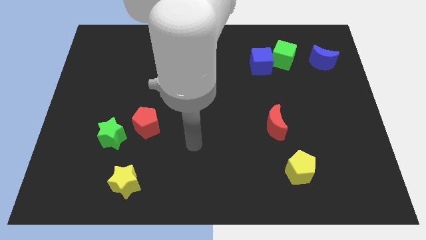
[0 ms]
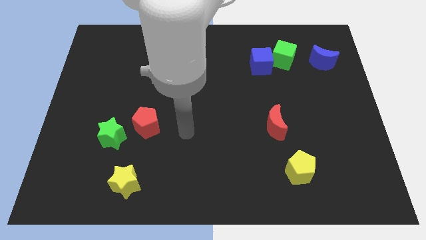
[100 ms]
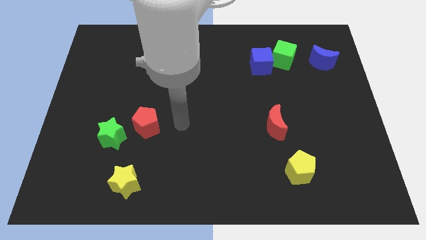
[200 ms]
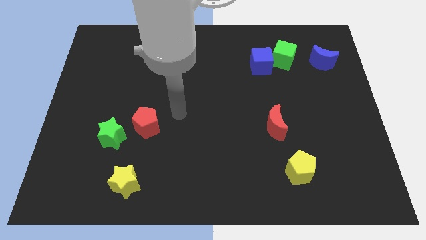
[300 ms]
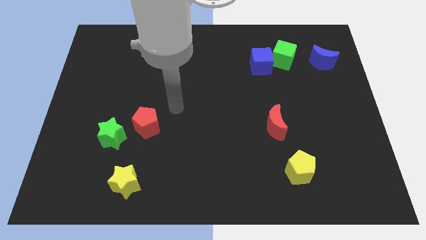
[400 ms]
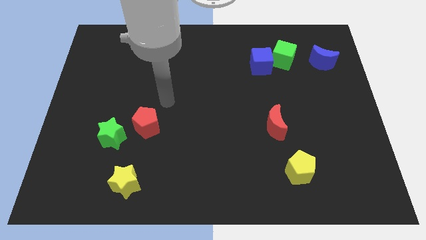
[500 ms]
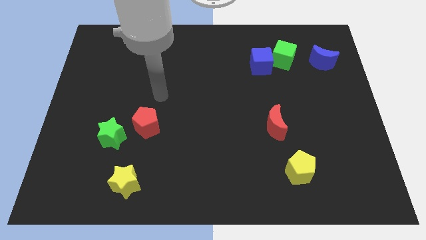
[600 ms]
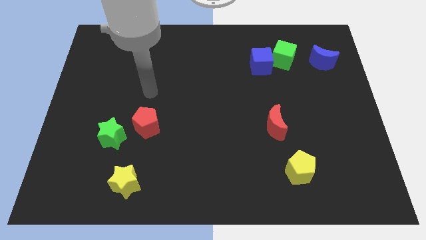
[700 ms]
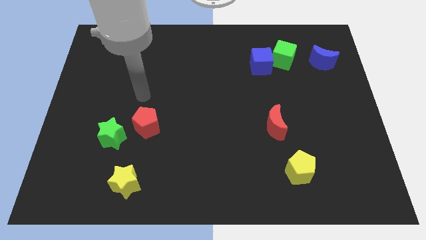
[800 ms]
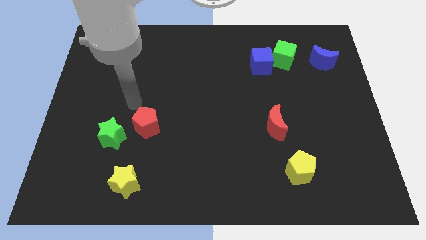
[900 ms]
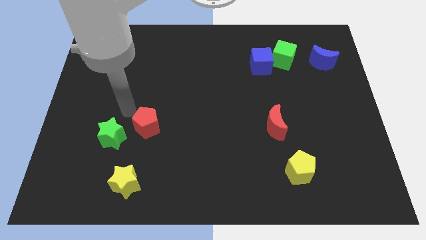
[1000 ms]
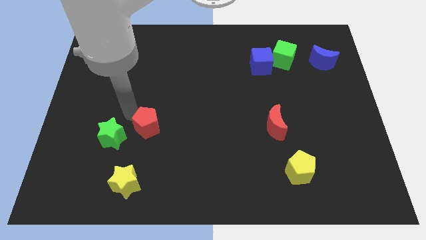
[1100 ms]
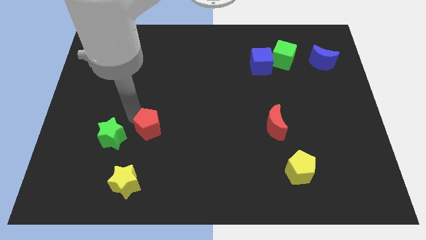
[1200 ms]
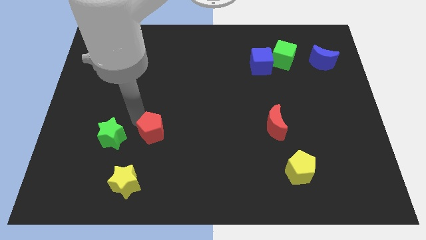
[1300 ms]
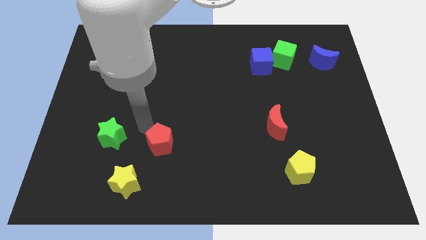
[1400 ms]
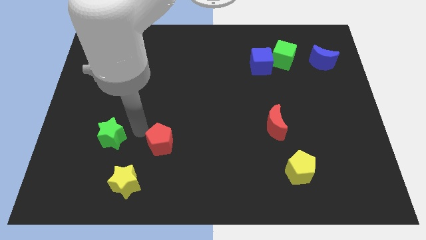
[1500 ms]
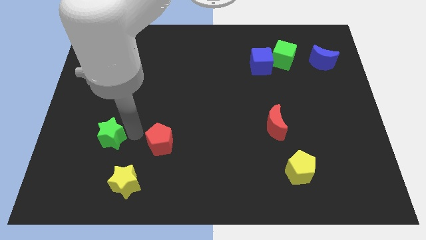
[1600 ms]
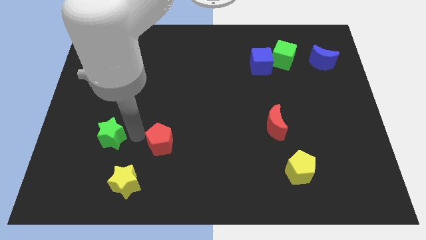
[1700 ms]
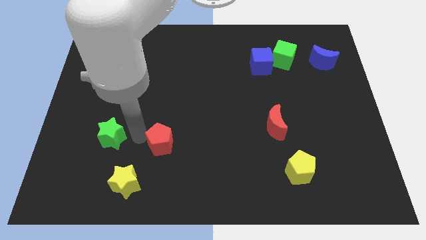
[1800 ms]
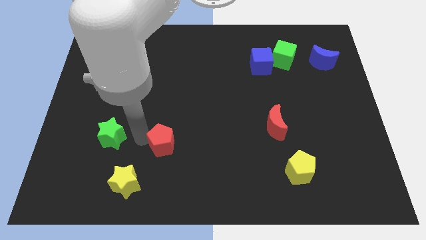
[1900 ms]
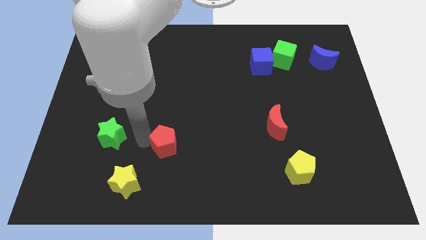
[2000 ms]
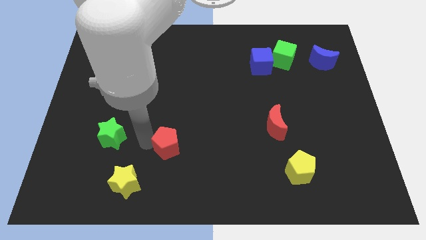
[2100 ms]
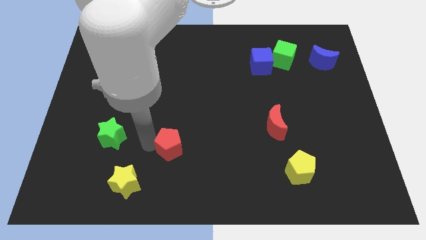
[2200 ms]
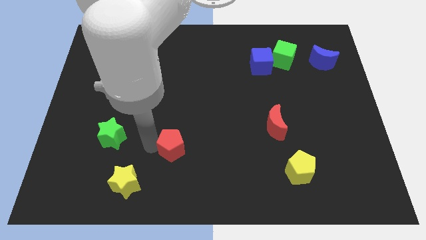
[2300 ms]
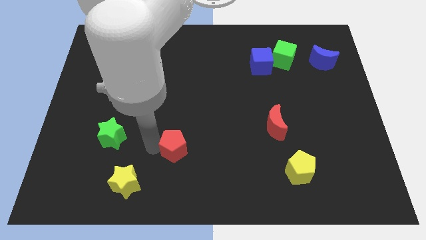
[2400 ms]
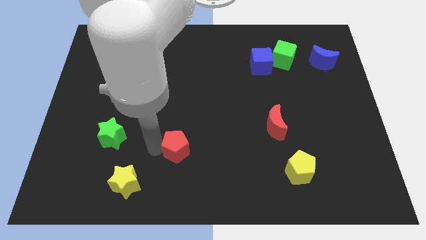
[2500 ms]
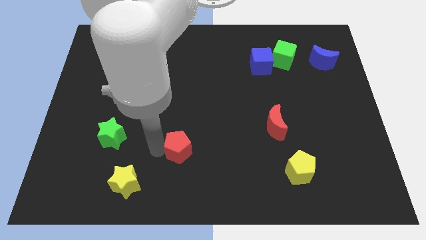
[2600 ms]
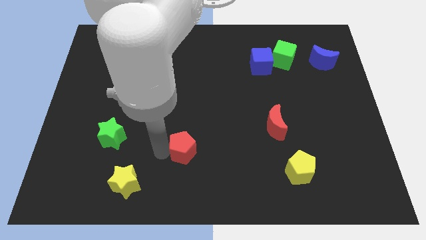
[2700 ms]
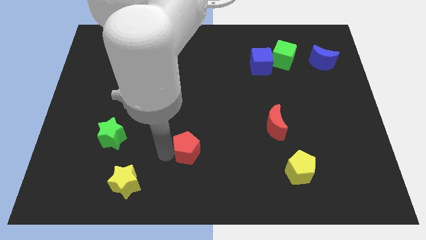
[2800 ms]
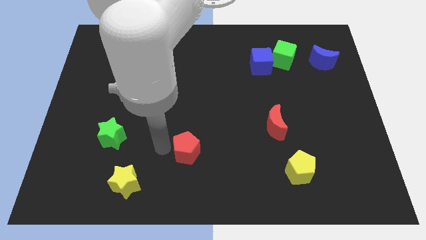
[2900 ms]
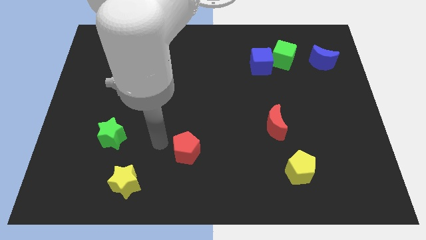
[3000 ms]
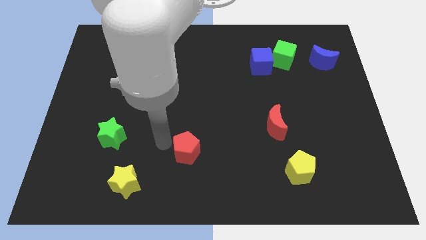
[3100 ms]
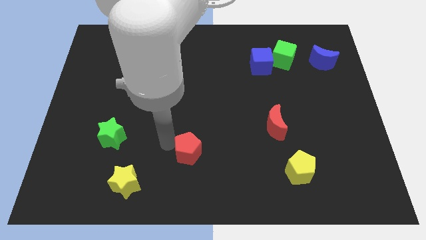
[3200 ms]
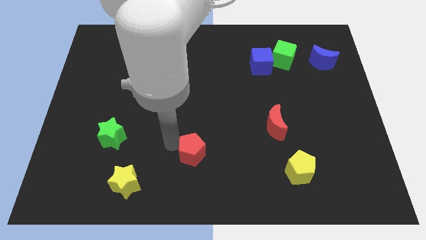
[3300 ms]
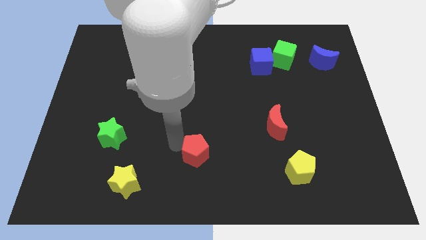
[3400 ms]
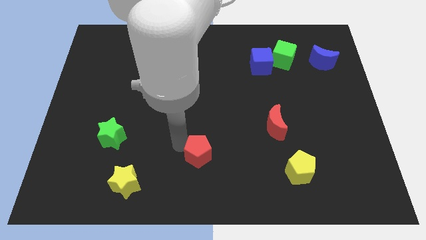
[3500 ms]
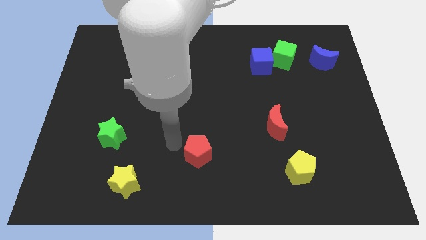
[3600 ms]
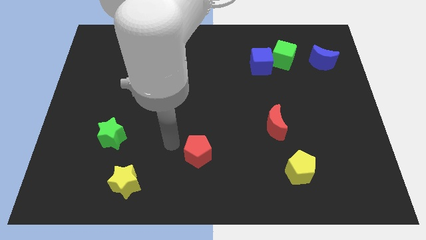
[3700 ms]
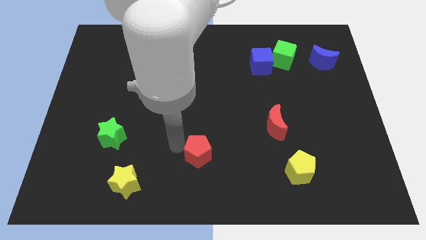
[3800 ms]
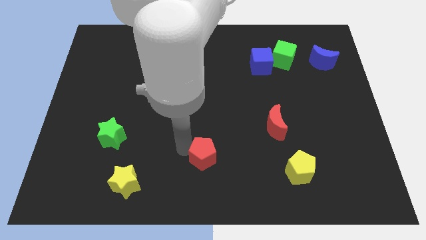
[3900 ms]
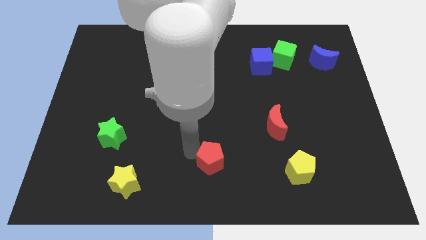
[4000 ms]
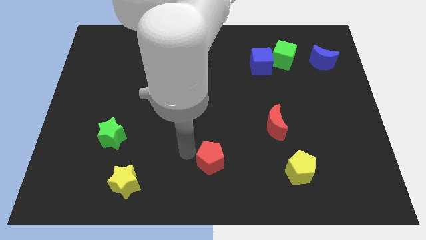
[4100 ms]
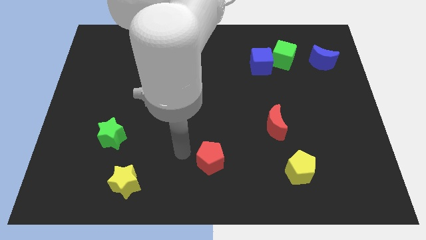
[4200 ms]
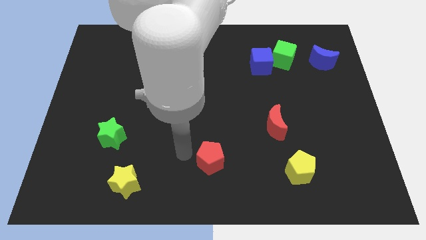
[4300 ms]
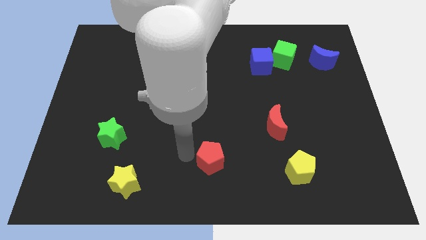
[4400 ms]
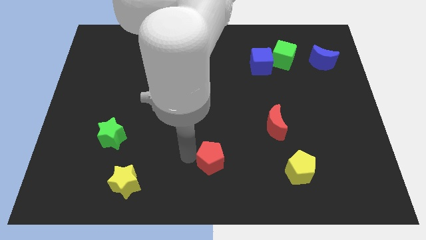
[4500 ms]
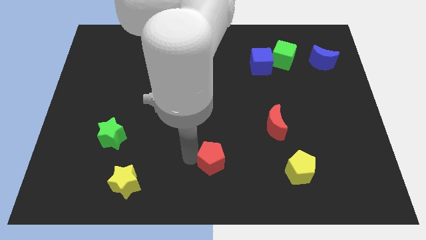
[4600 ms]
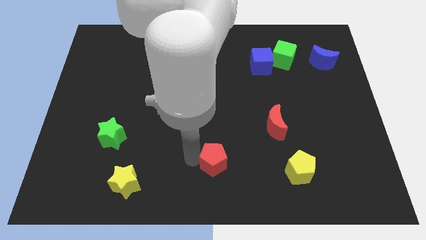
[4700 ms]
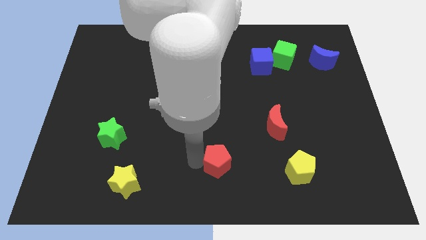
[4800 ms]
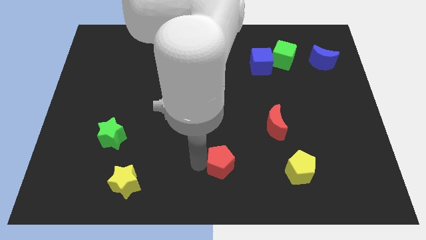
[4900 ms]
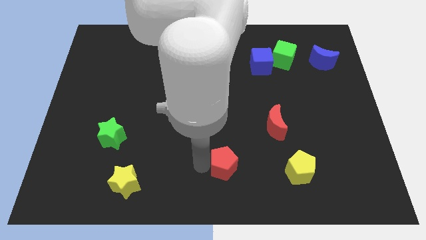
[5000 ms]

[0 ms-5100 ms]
move the red pentagon to the left of the yellow pentagon

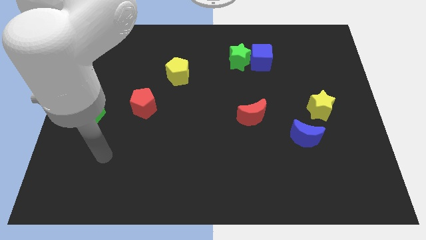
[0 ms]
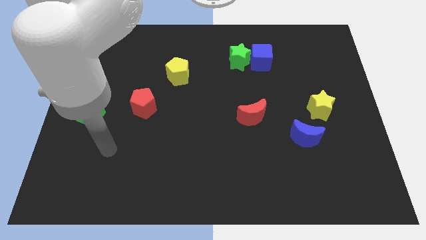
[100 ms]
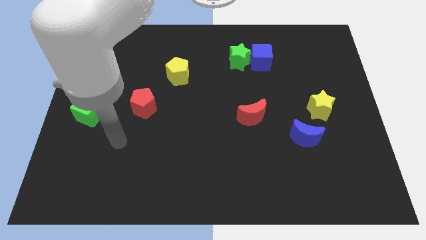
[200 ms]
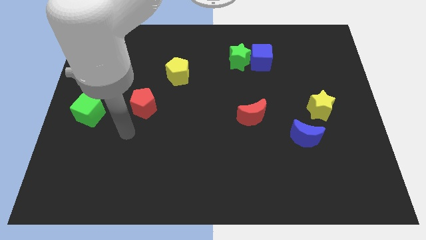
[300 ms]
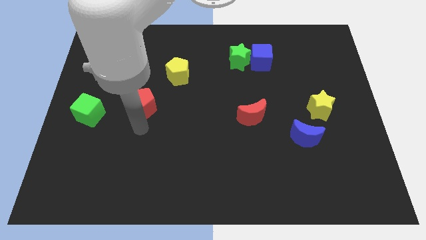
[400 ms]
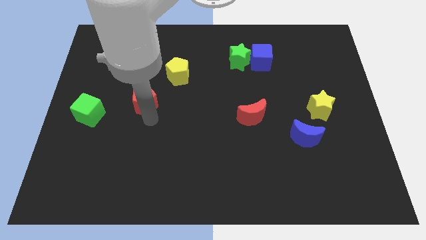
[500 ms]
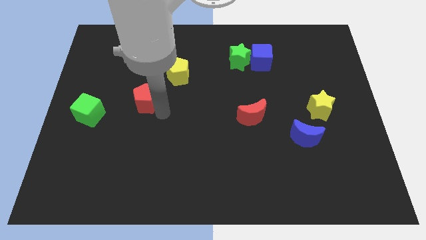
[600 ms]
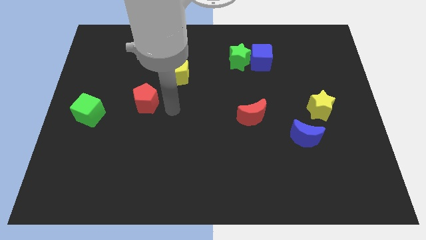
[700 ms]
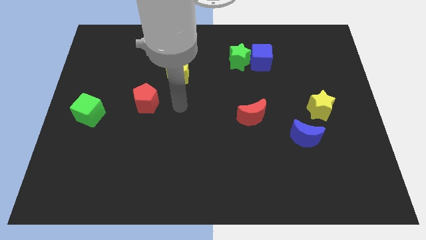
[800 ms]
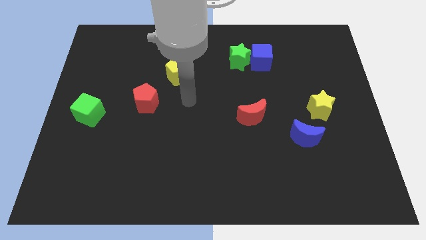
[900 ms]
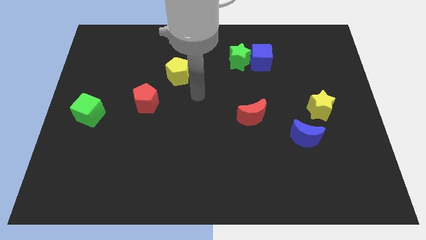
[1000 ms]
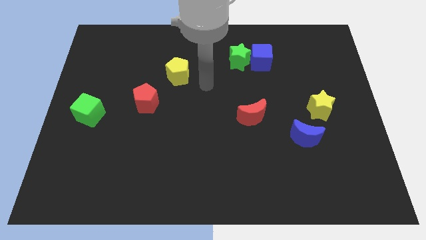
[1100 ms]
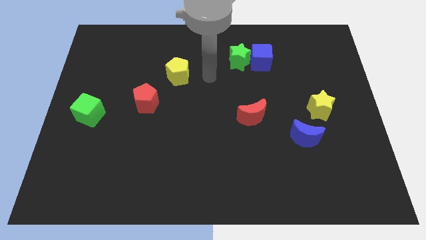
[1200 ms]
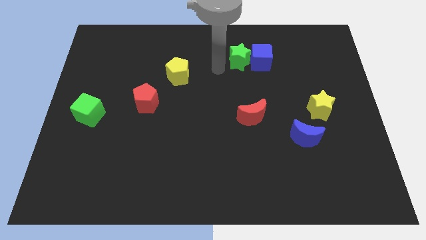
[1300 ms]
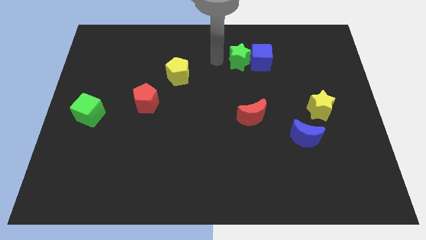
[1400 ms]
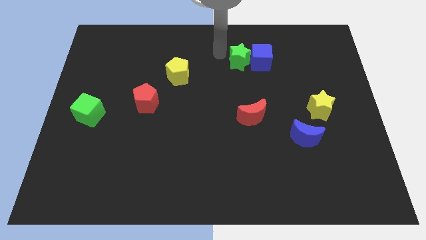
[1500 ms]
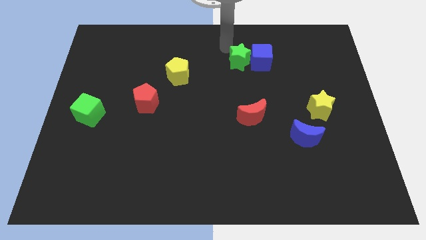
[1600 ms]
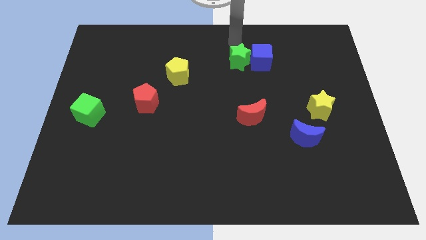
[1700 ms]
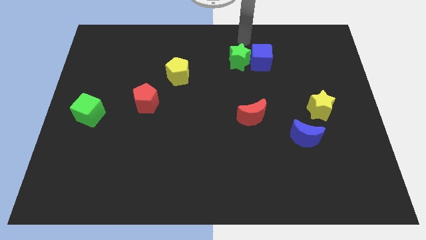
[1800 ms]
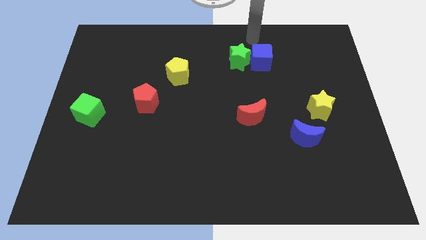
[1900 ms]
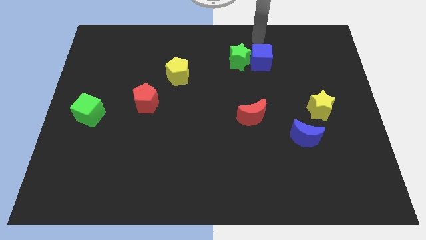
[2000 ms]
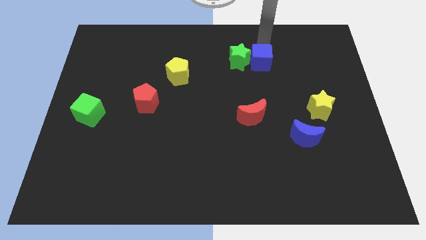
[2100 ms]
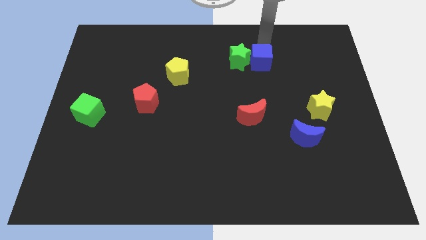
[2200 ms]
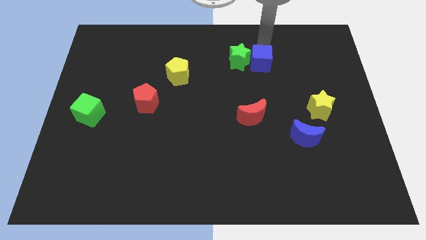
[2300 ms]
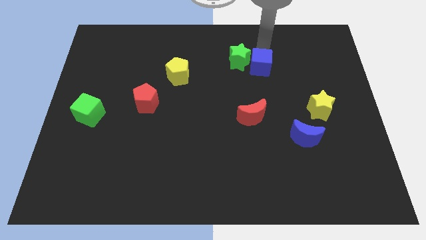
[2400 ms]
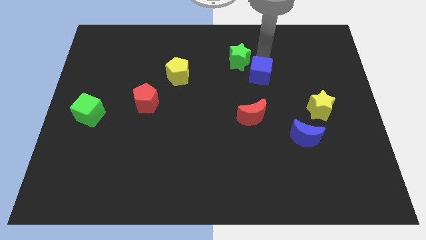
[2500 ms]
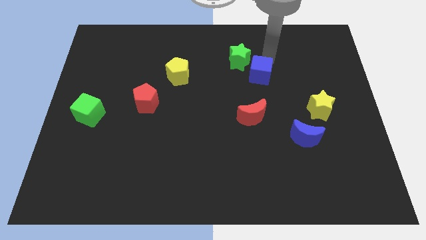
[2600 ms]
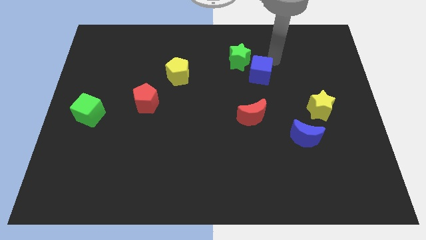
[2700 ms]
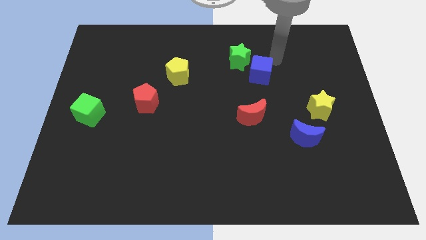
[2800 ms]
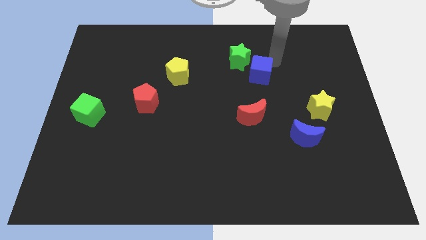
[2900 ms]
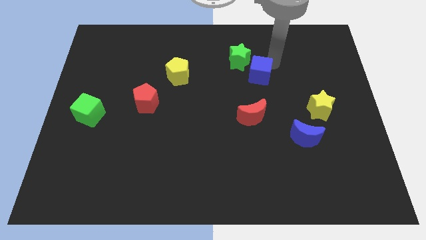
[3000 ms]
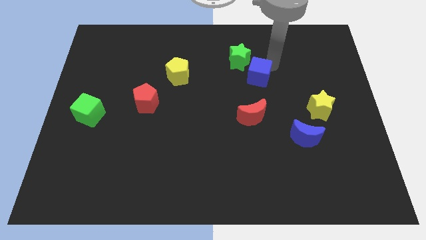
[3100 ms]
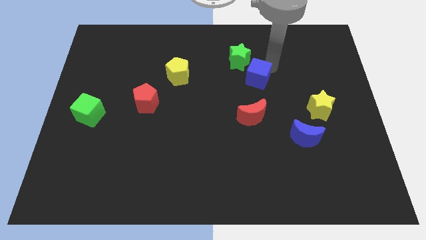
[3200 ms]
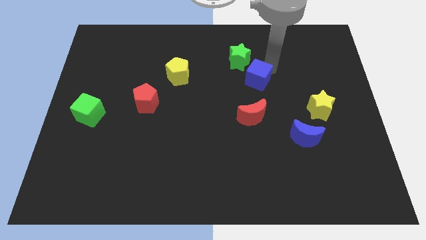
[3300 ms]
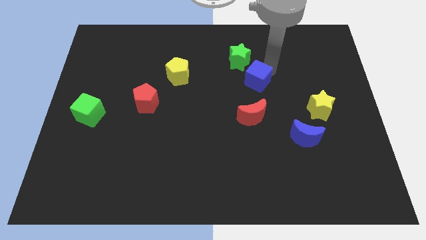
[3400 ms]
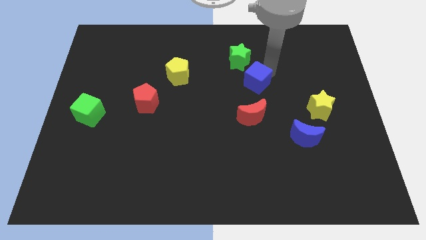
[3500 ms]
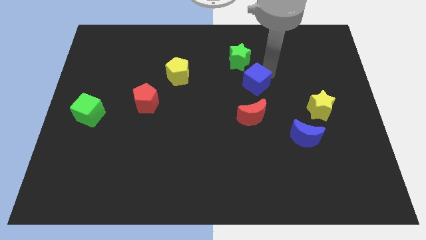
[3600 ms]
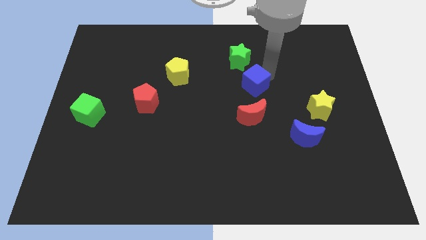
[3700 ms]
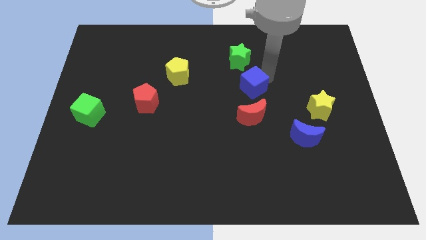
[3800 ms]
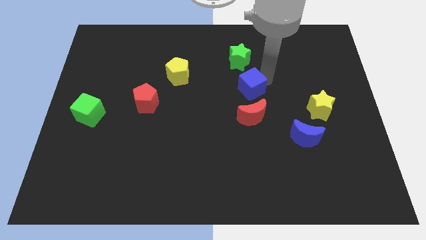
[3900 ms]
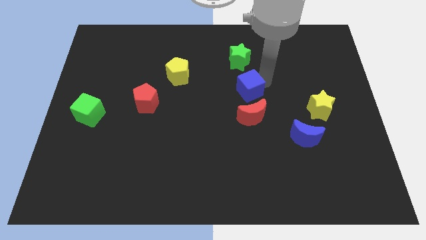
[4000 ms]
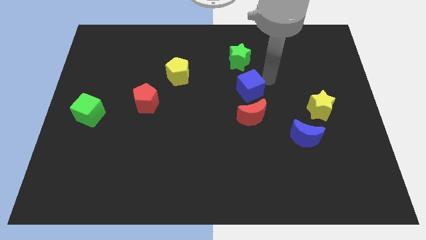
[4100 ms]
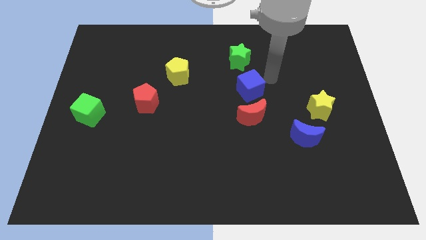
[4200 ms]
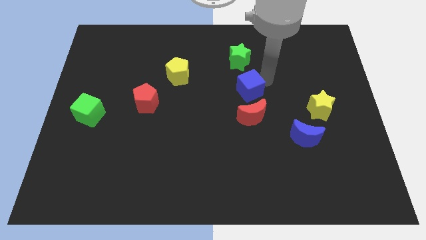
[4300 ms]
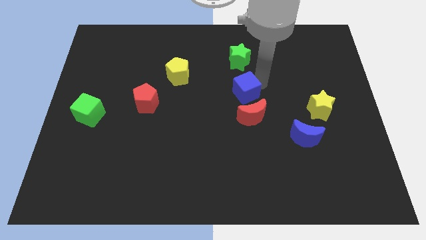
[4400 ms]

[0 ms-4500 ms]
move the blue cube diagonally up and to the left of the red moon
